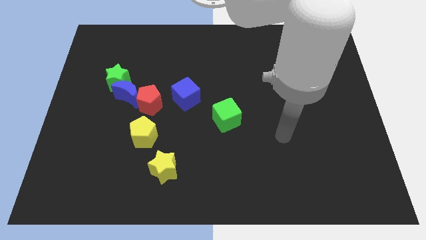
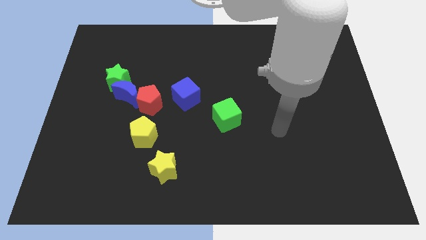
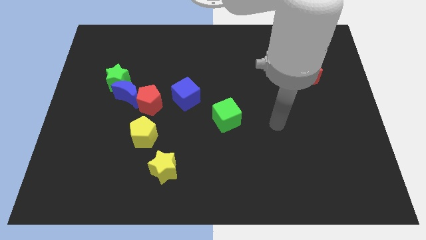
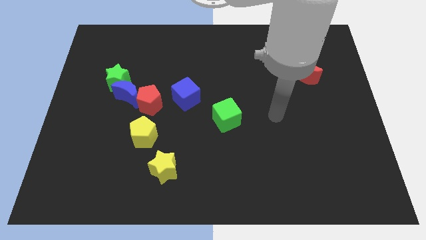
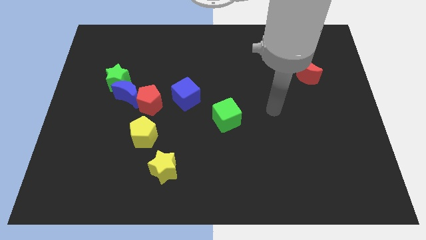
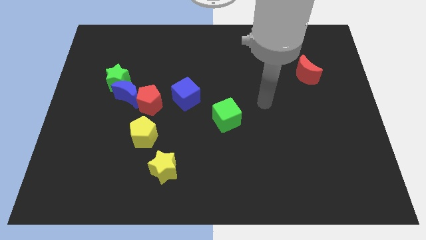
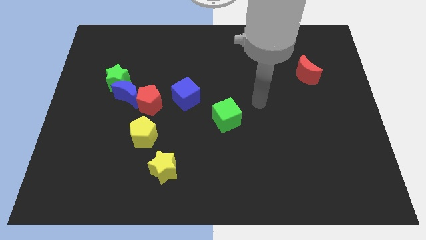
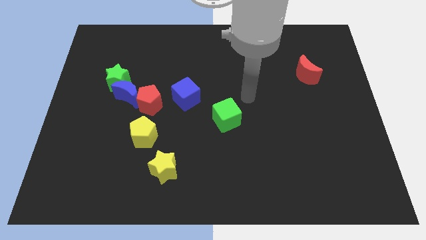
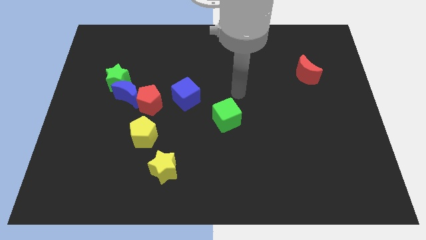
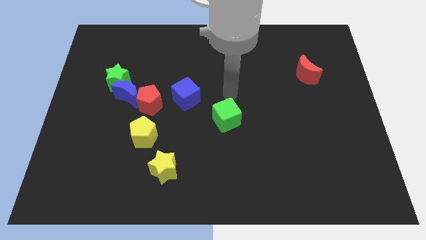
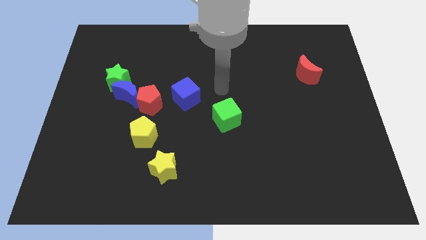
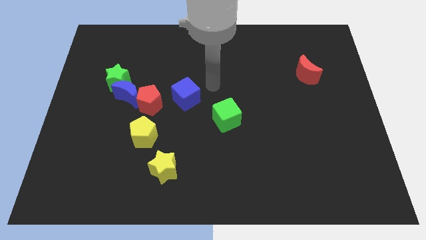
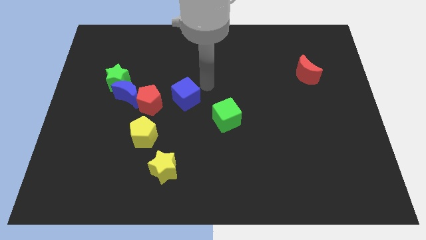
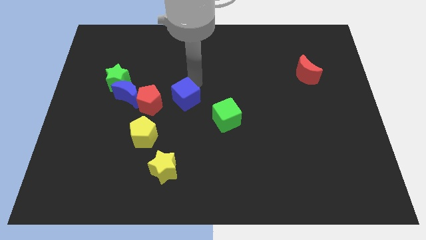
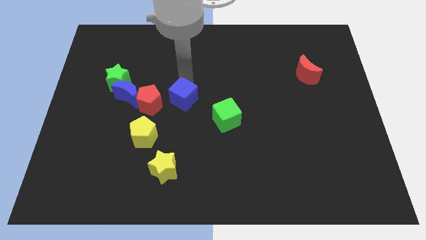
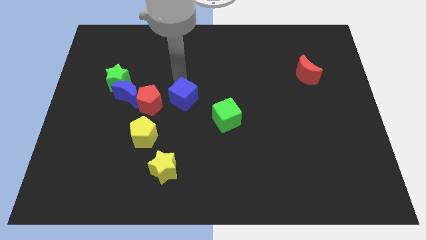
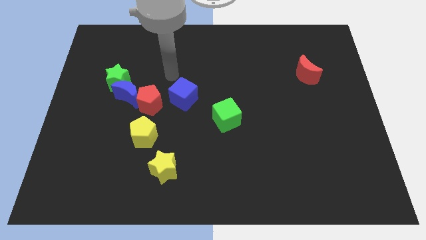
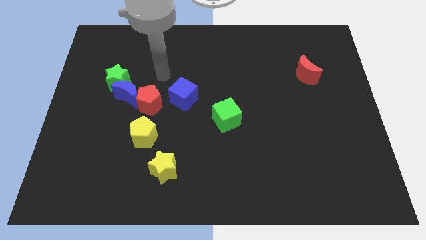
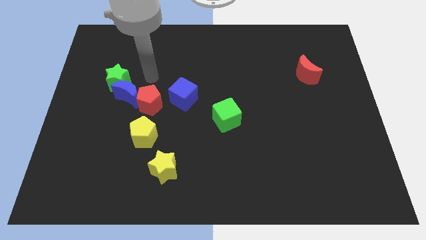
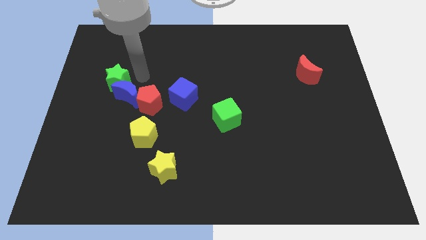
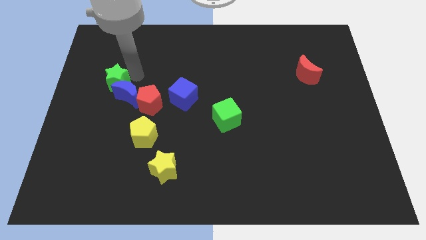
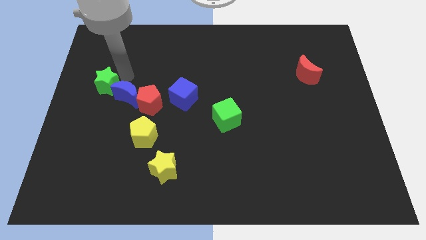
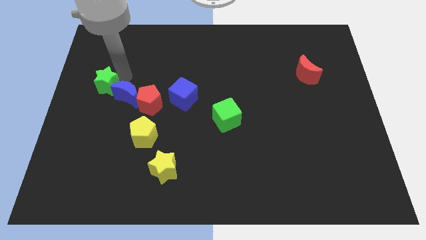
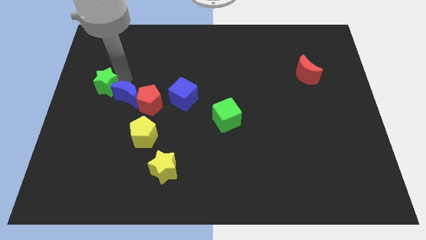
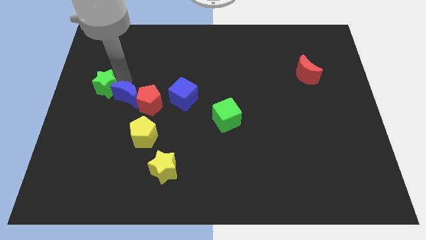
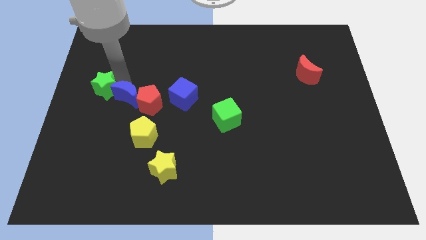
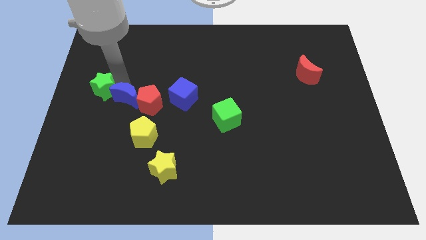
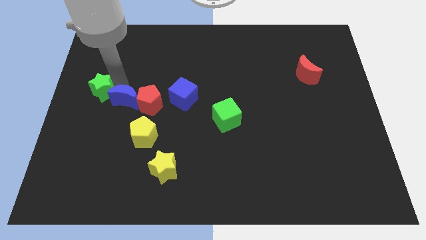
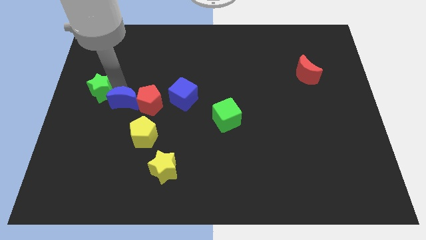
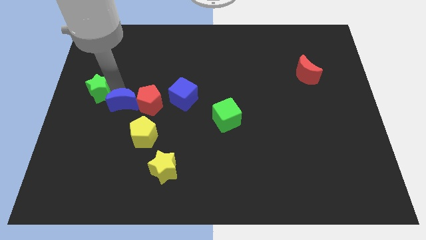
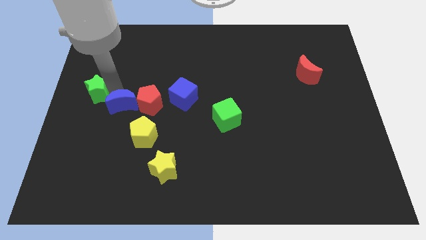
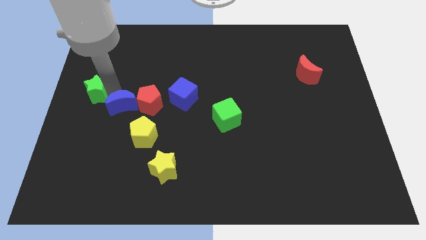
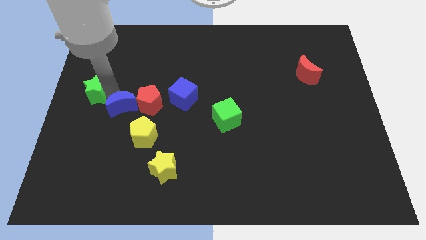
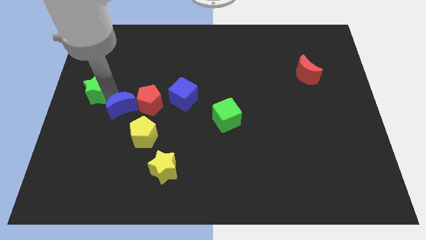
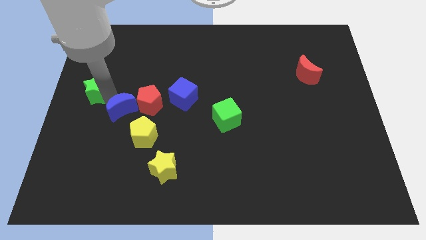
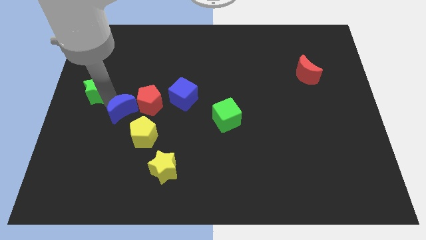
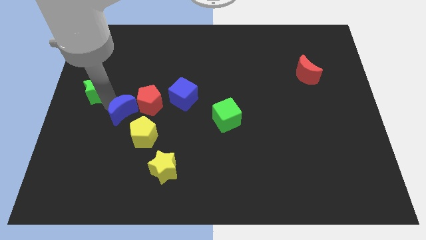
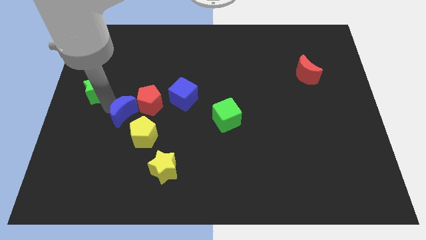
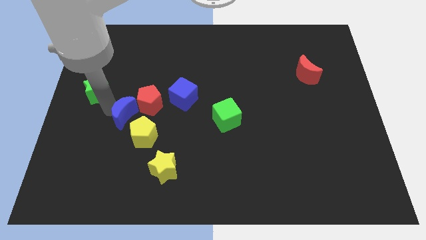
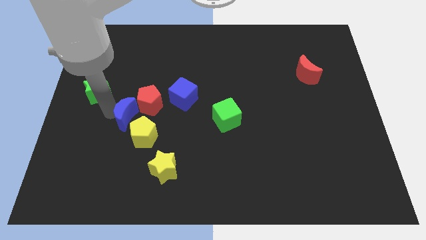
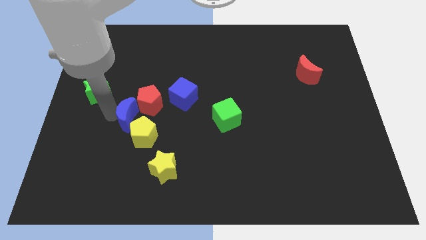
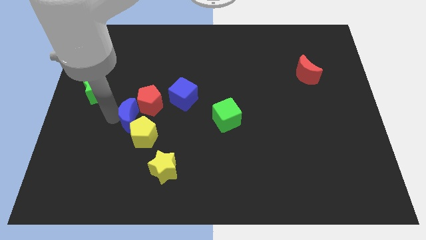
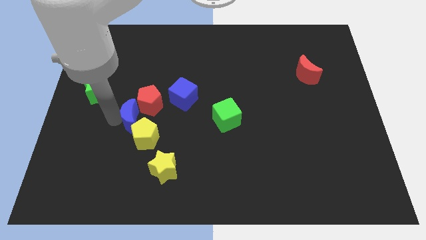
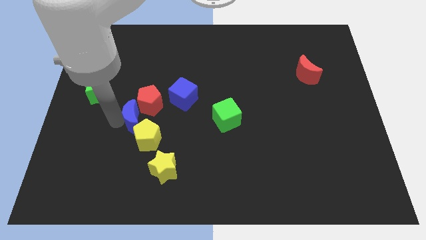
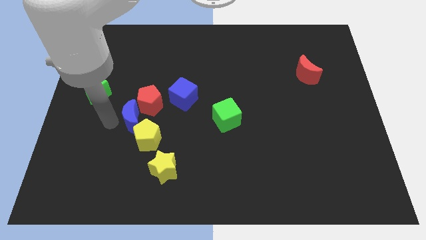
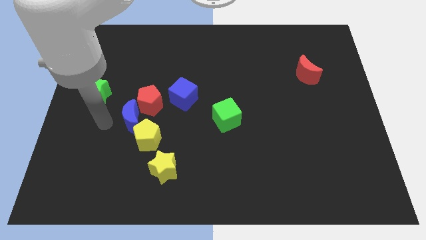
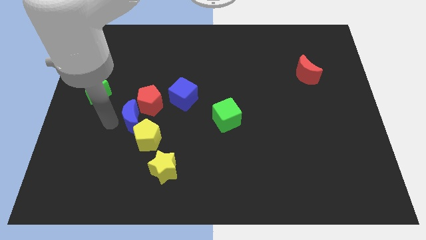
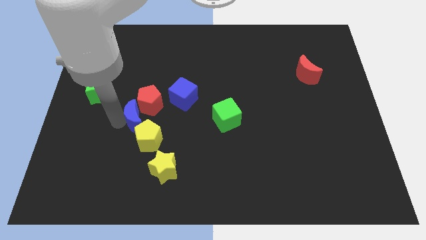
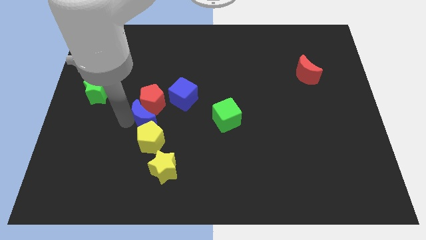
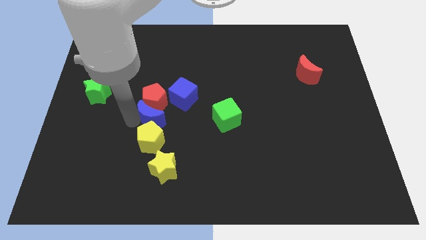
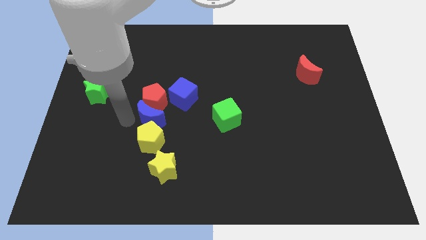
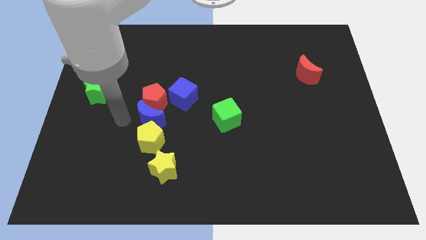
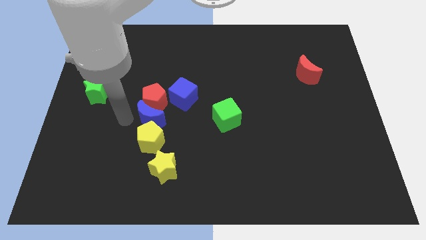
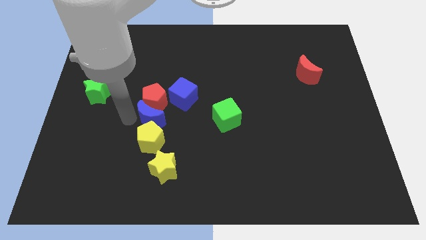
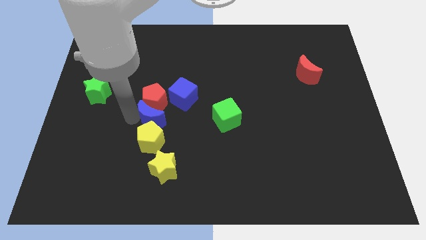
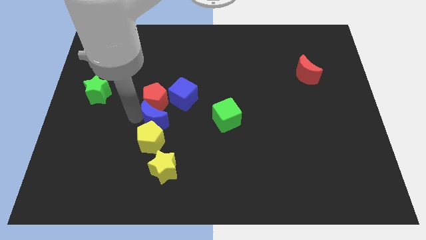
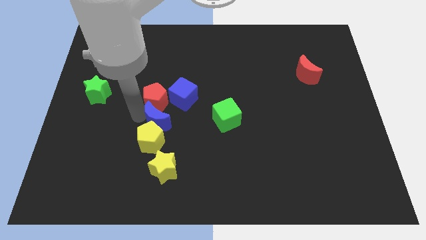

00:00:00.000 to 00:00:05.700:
move the blue moon to the left side of the green cube

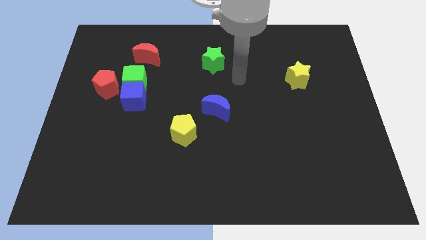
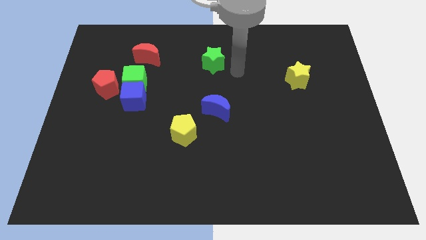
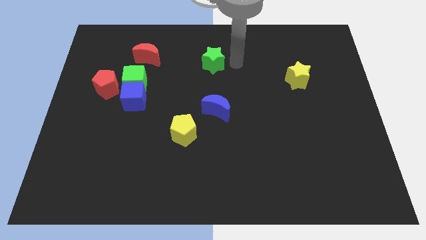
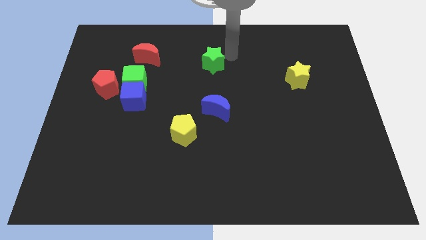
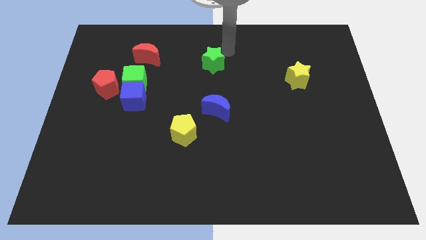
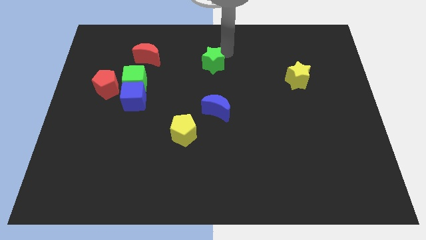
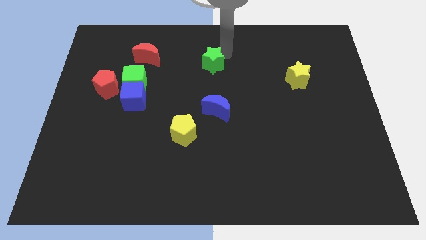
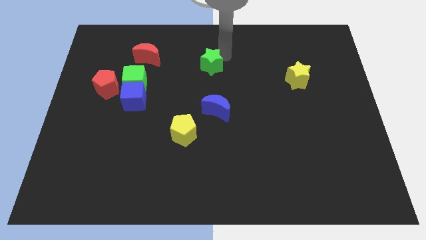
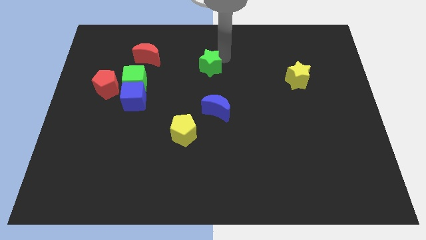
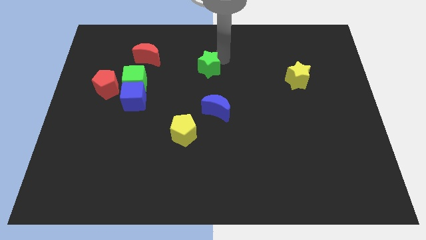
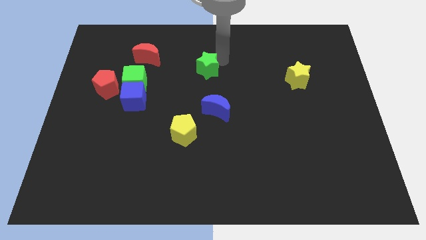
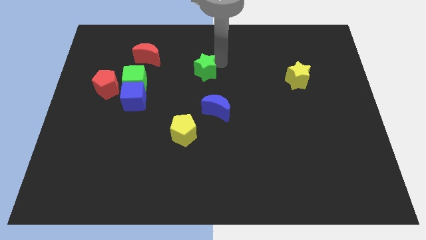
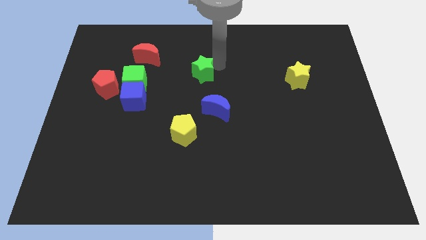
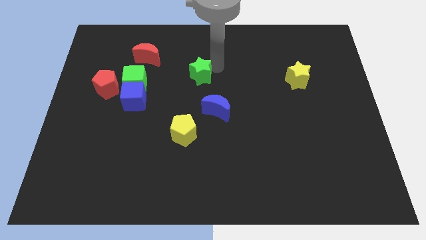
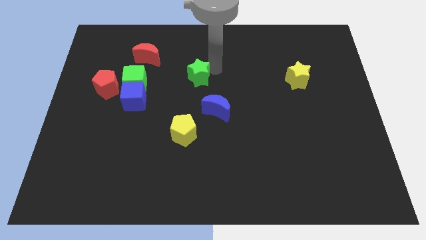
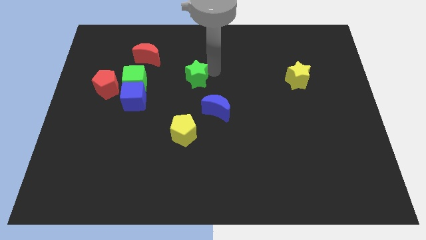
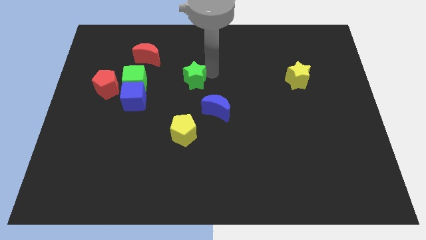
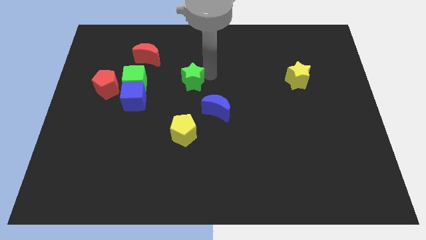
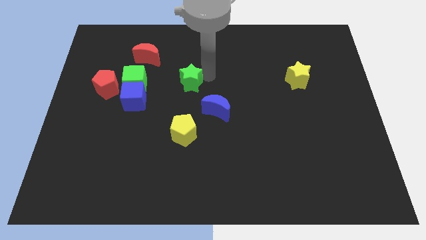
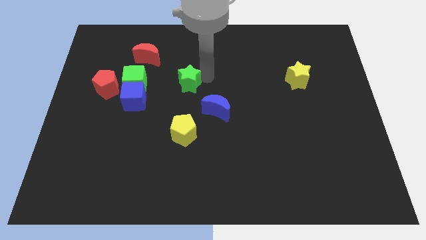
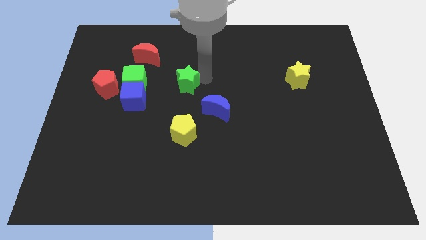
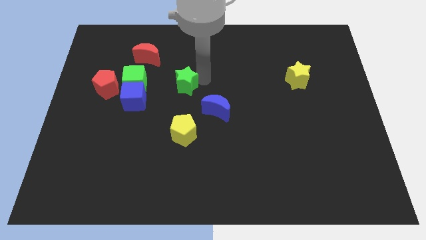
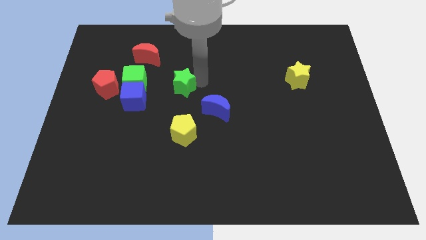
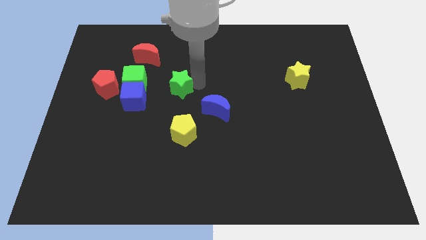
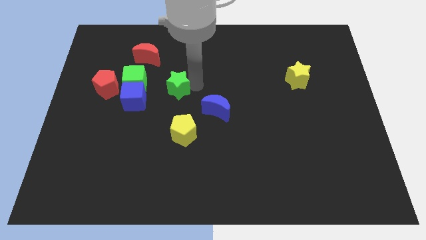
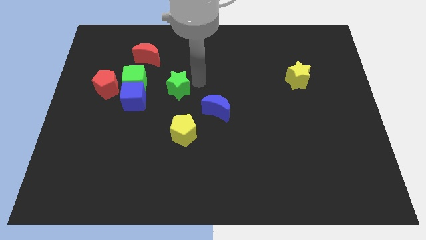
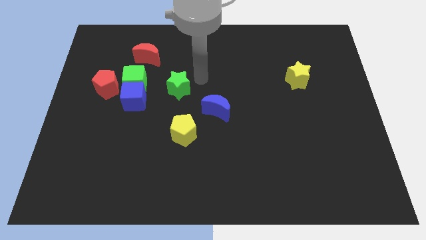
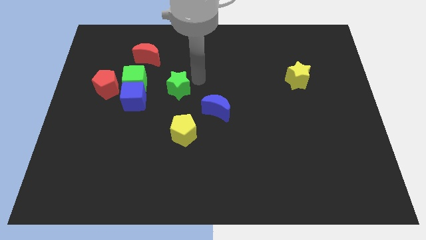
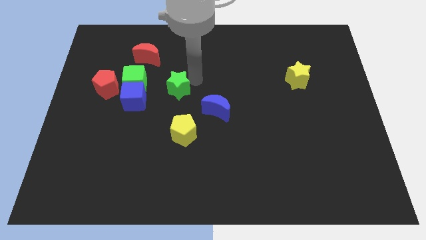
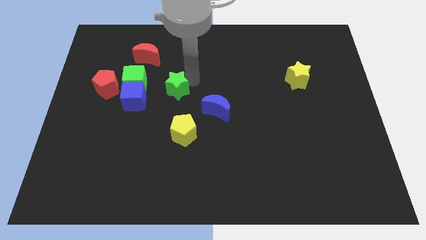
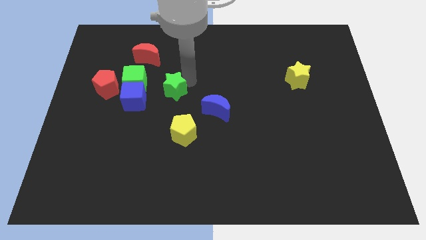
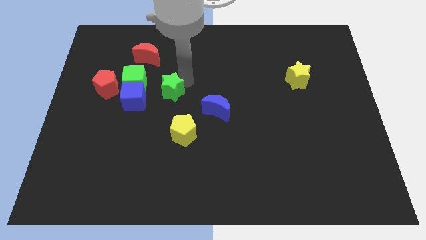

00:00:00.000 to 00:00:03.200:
slide the green star diagonally down and to the right of the green cube
